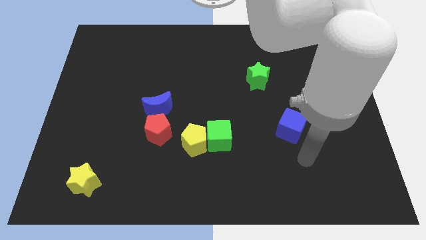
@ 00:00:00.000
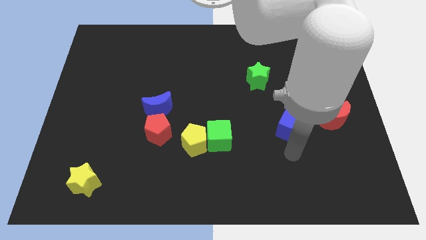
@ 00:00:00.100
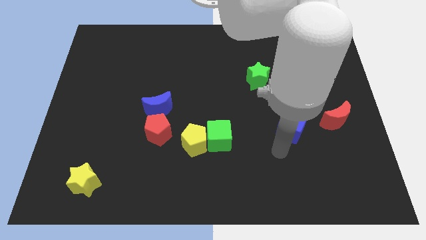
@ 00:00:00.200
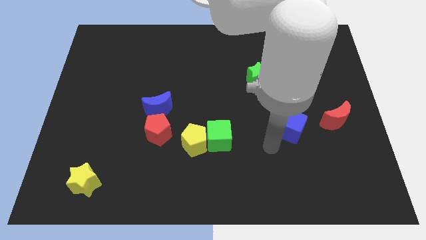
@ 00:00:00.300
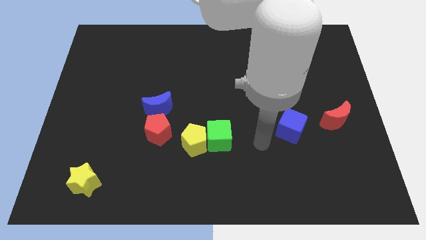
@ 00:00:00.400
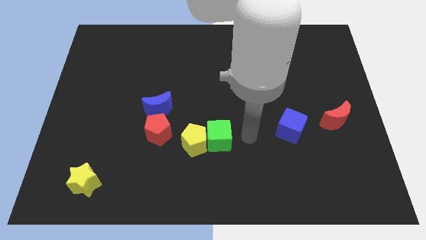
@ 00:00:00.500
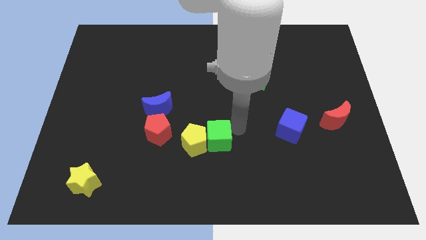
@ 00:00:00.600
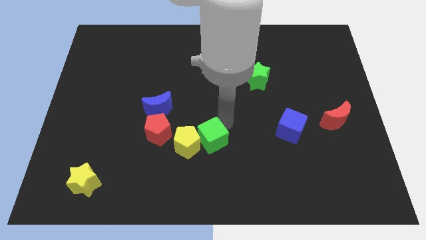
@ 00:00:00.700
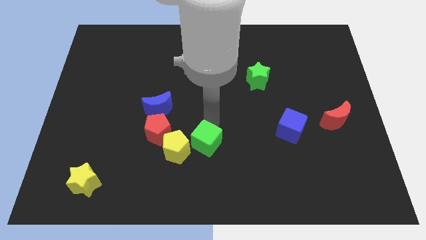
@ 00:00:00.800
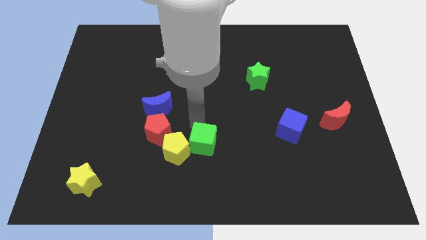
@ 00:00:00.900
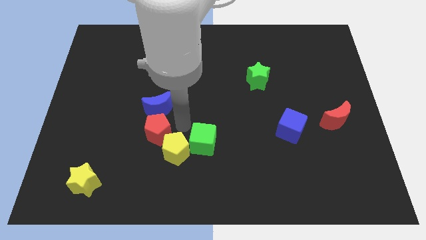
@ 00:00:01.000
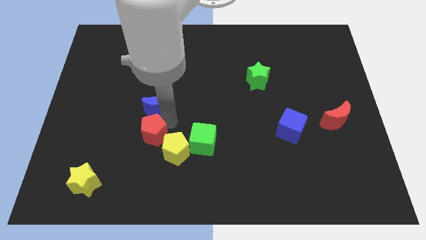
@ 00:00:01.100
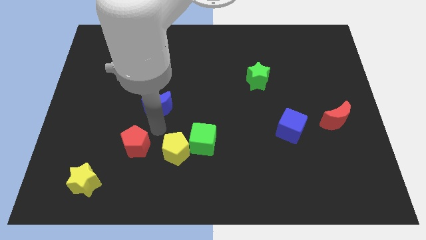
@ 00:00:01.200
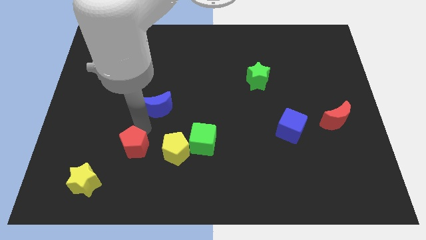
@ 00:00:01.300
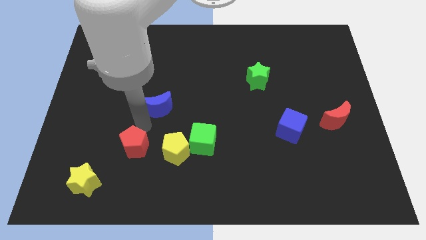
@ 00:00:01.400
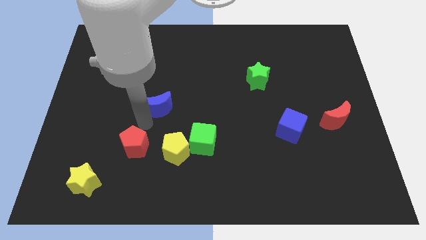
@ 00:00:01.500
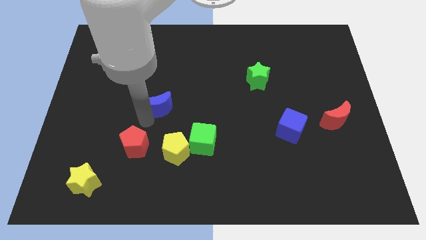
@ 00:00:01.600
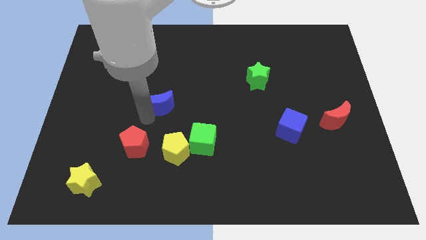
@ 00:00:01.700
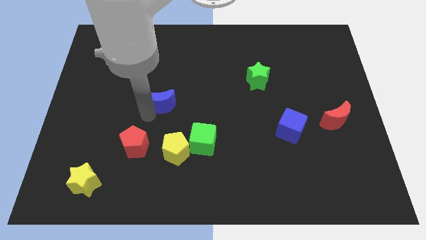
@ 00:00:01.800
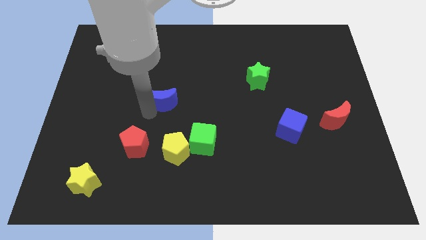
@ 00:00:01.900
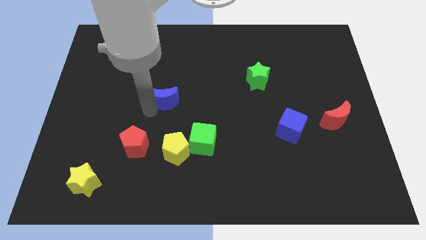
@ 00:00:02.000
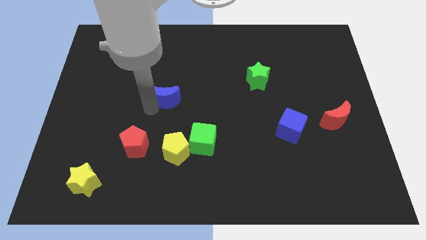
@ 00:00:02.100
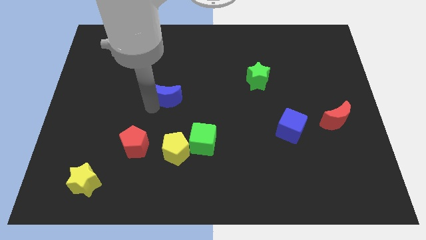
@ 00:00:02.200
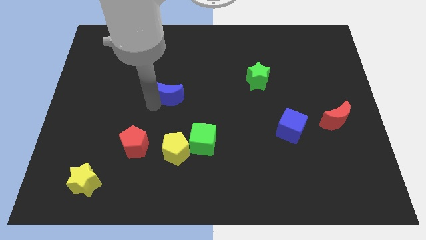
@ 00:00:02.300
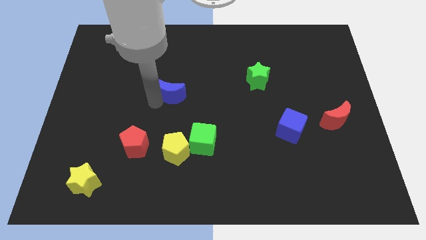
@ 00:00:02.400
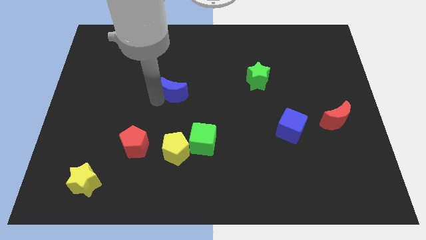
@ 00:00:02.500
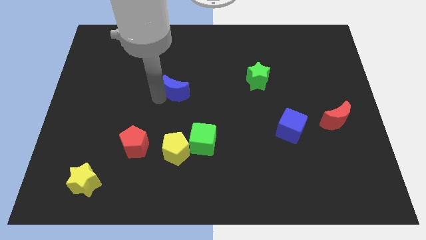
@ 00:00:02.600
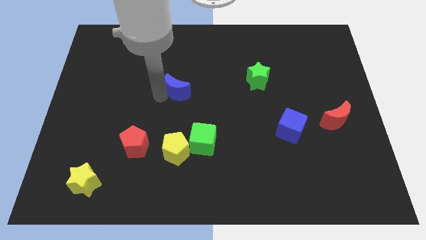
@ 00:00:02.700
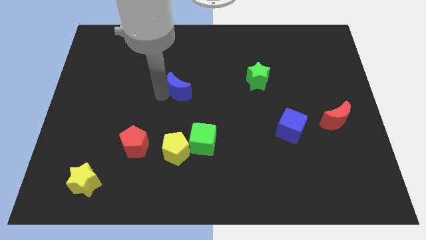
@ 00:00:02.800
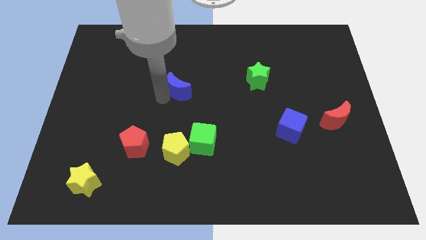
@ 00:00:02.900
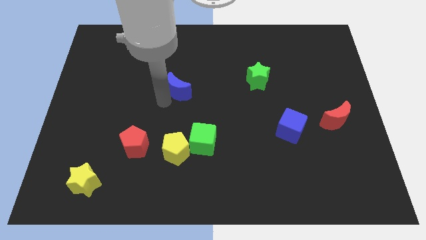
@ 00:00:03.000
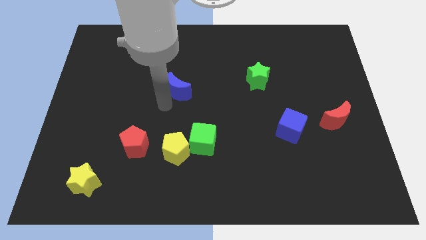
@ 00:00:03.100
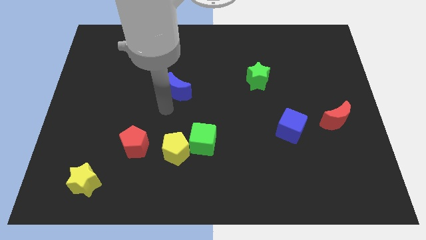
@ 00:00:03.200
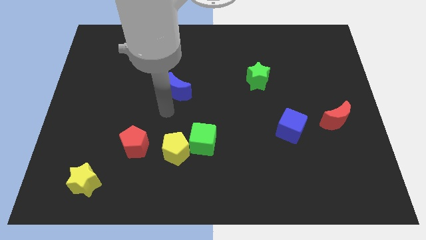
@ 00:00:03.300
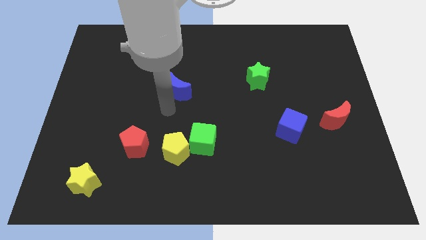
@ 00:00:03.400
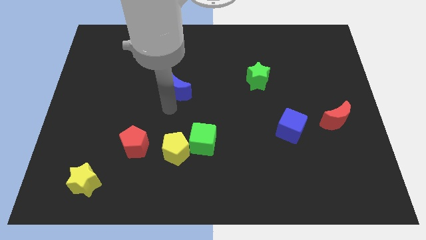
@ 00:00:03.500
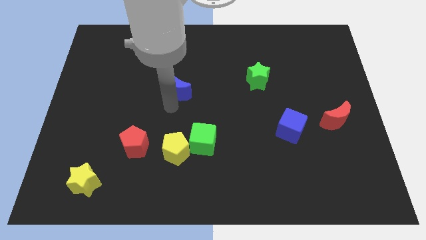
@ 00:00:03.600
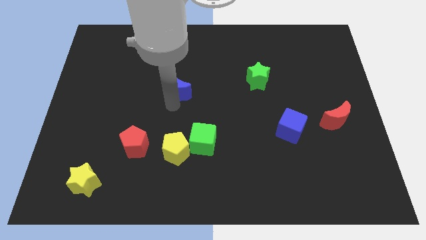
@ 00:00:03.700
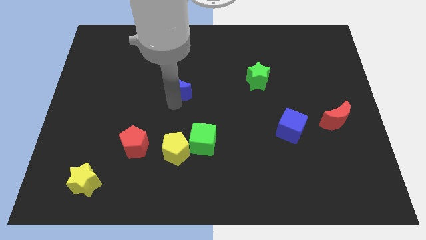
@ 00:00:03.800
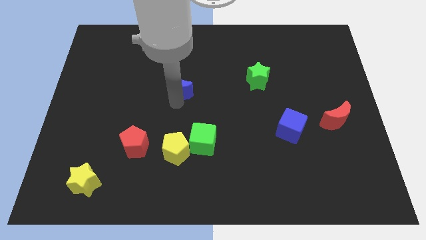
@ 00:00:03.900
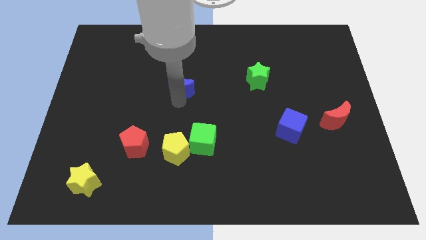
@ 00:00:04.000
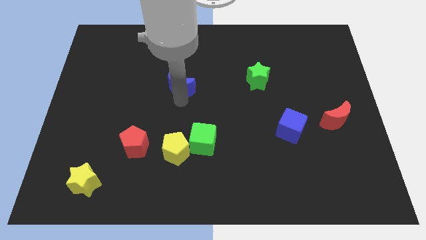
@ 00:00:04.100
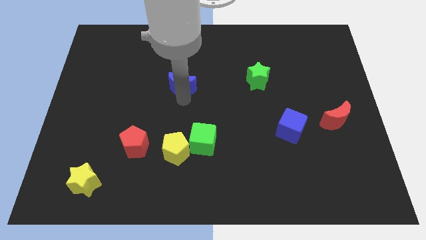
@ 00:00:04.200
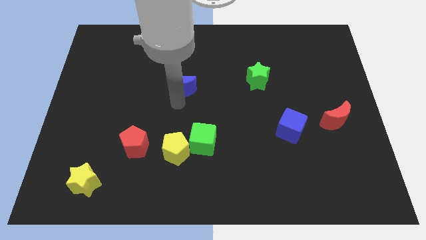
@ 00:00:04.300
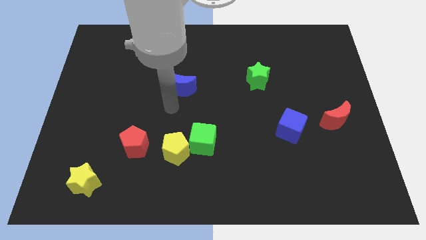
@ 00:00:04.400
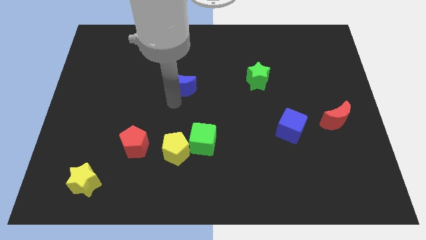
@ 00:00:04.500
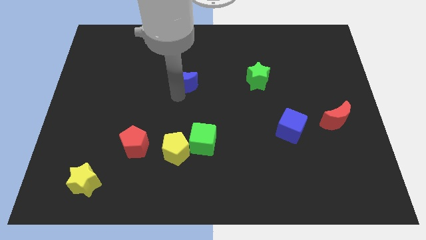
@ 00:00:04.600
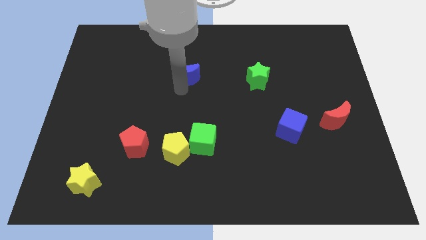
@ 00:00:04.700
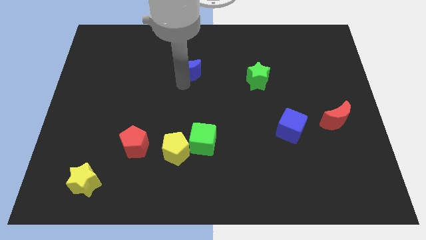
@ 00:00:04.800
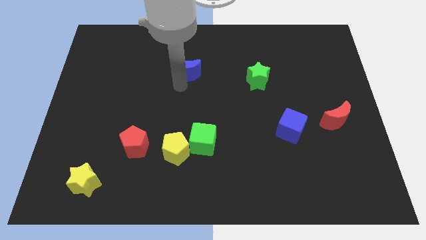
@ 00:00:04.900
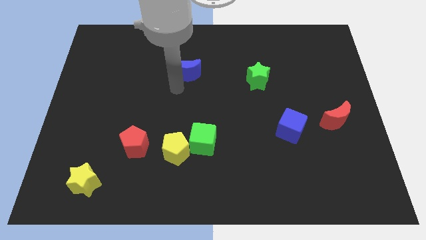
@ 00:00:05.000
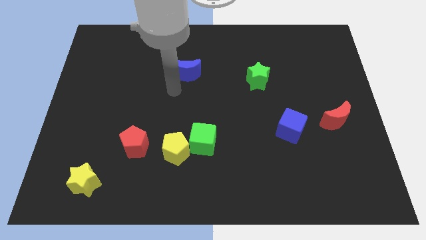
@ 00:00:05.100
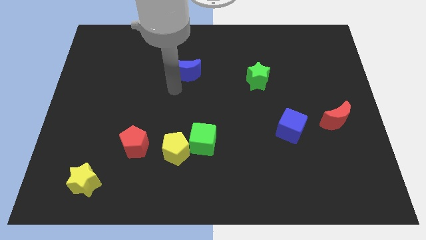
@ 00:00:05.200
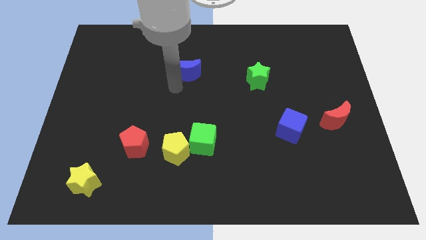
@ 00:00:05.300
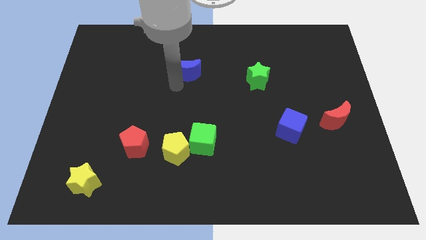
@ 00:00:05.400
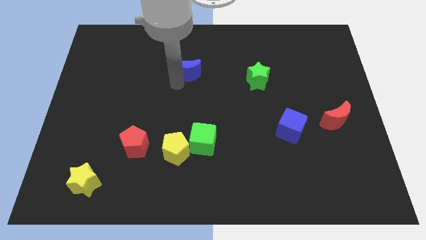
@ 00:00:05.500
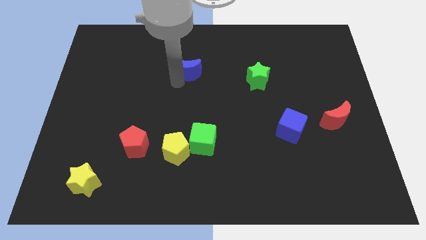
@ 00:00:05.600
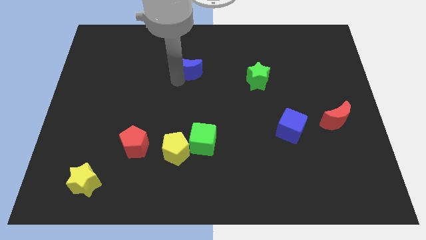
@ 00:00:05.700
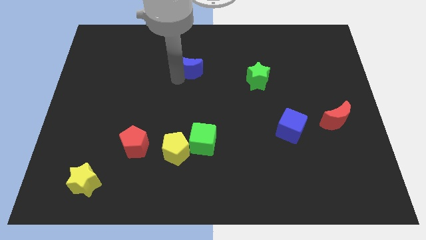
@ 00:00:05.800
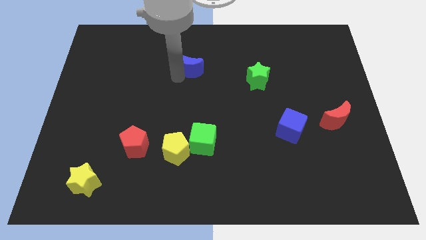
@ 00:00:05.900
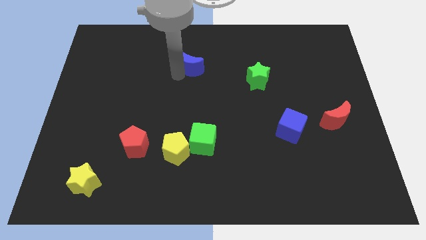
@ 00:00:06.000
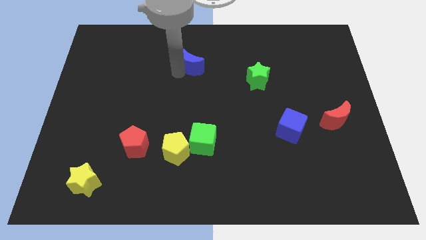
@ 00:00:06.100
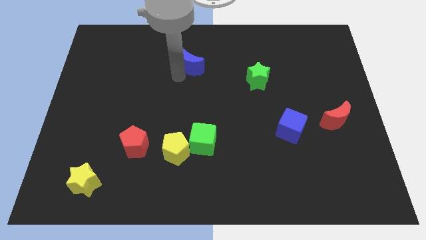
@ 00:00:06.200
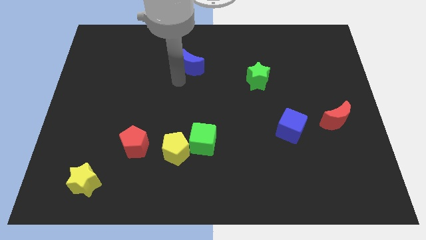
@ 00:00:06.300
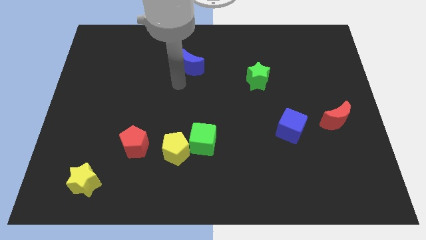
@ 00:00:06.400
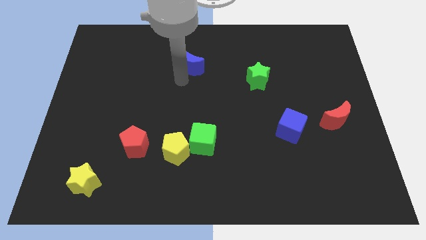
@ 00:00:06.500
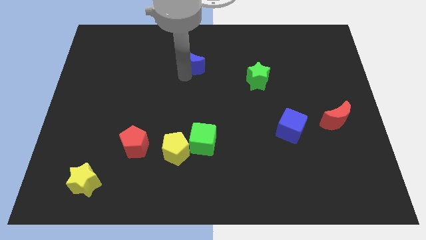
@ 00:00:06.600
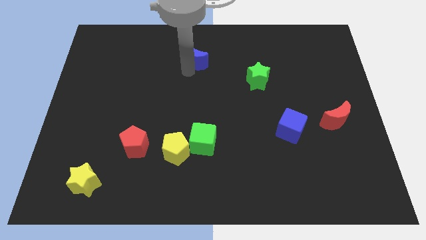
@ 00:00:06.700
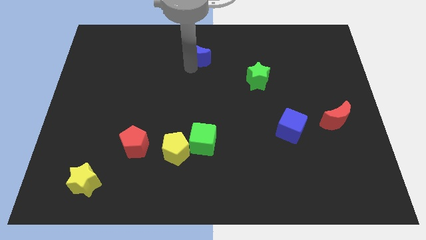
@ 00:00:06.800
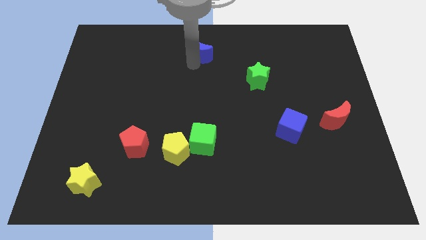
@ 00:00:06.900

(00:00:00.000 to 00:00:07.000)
put the blue moon to the towards your base
